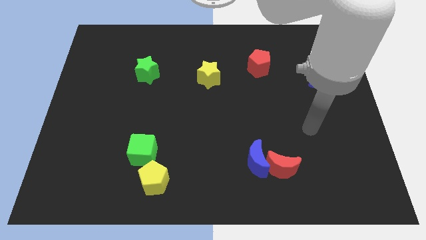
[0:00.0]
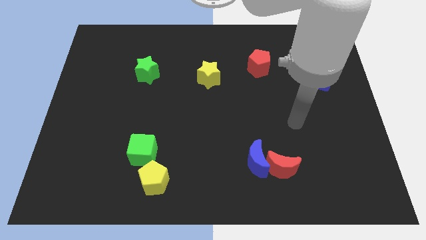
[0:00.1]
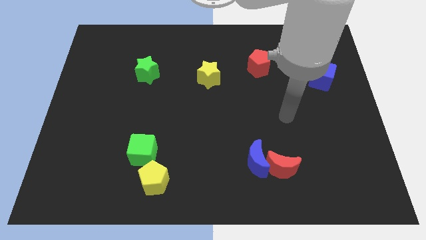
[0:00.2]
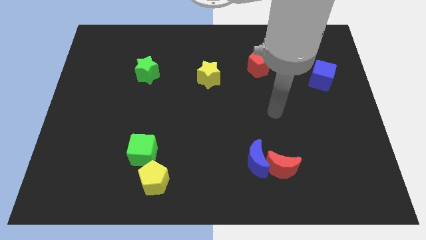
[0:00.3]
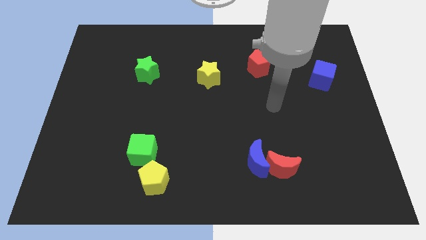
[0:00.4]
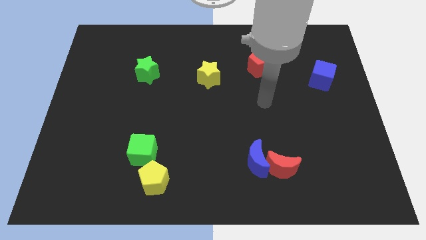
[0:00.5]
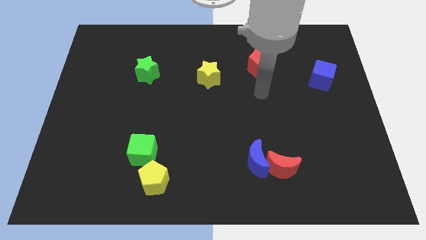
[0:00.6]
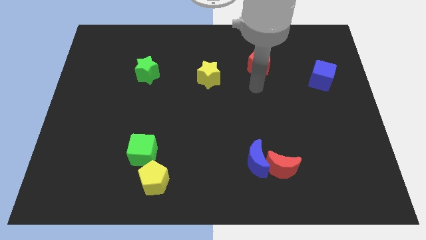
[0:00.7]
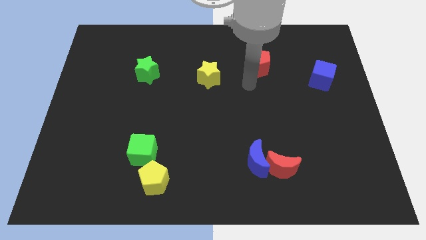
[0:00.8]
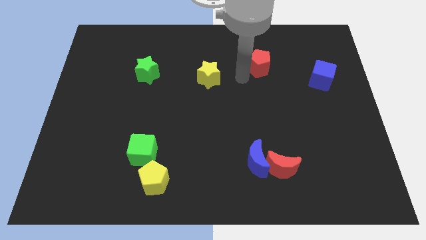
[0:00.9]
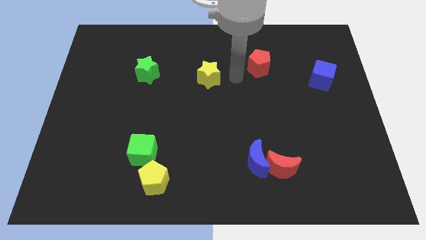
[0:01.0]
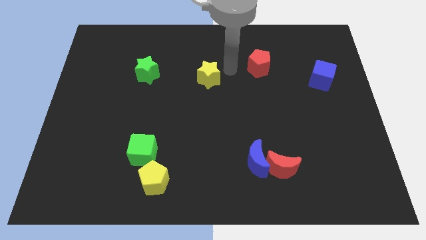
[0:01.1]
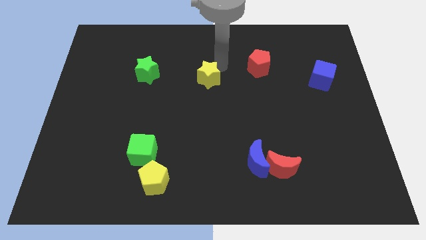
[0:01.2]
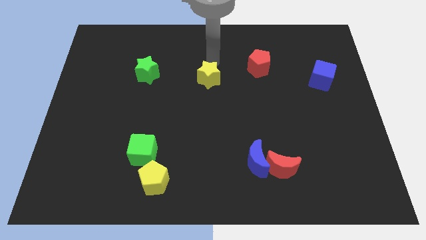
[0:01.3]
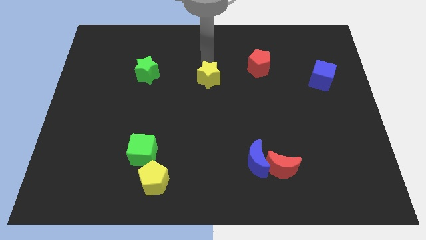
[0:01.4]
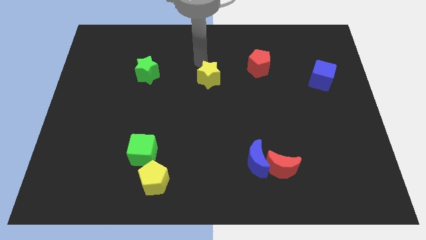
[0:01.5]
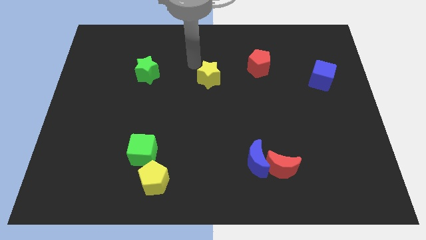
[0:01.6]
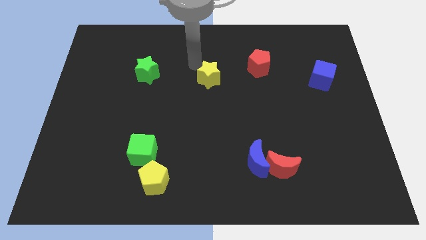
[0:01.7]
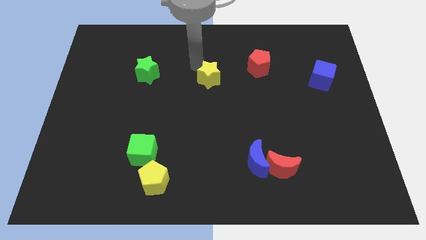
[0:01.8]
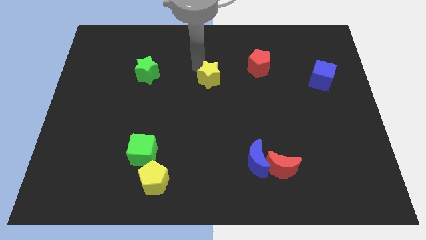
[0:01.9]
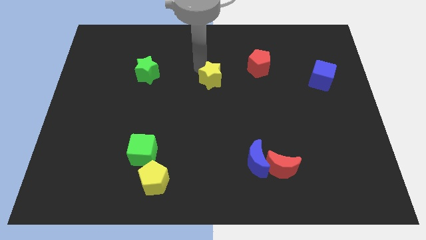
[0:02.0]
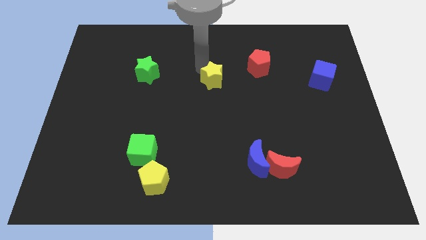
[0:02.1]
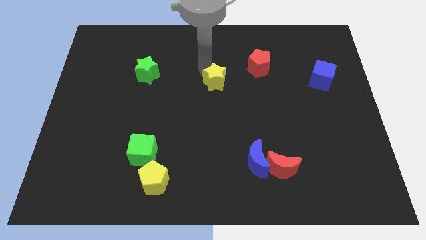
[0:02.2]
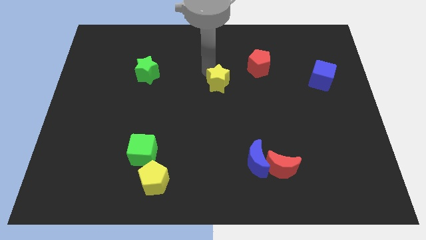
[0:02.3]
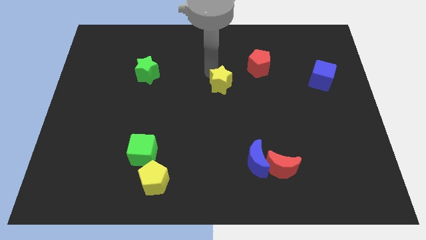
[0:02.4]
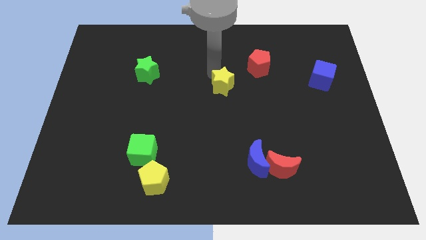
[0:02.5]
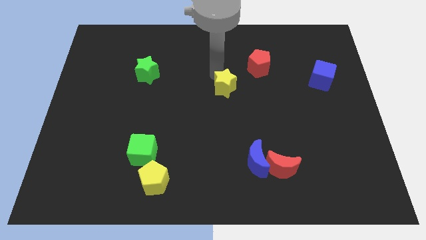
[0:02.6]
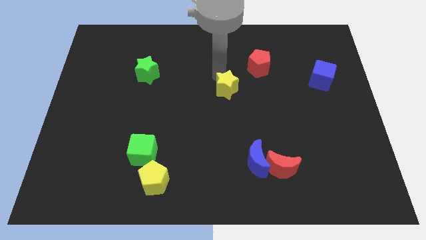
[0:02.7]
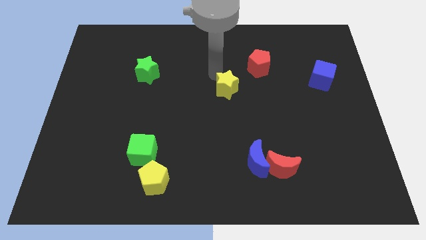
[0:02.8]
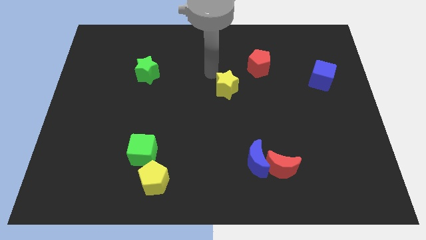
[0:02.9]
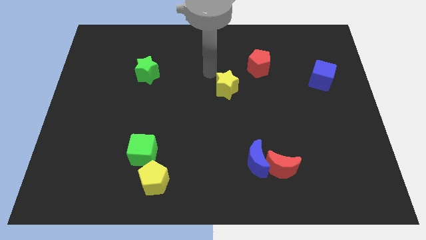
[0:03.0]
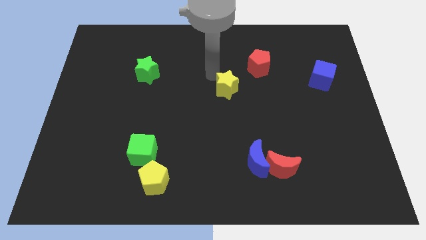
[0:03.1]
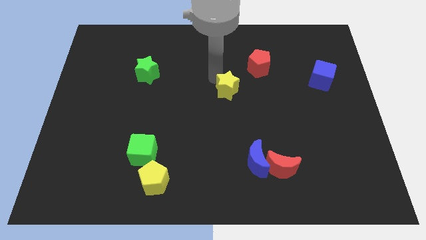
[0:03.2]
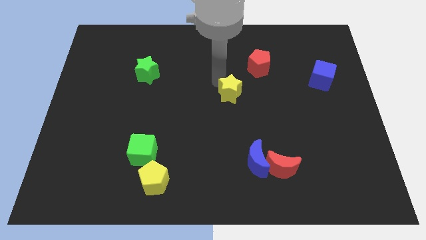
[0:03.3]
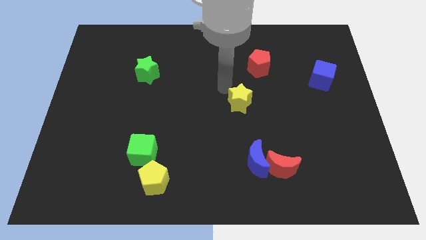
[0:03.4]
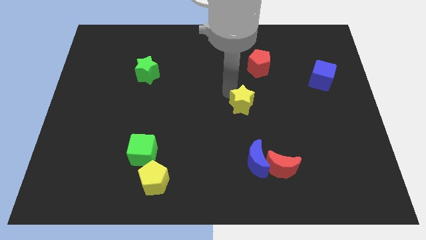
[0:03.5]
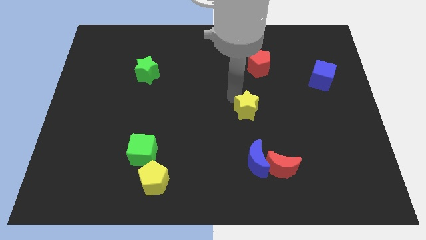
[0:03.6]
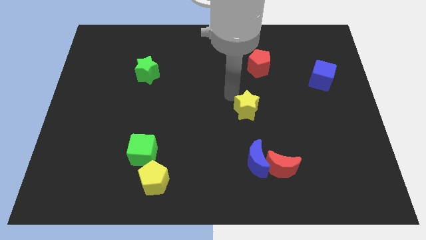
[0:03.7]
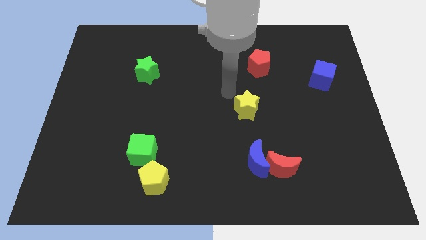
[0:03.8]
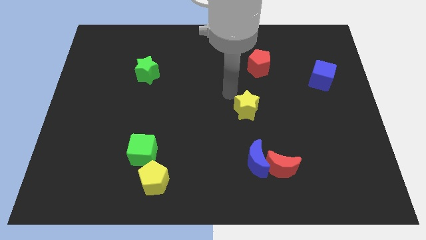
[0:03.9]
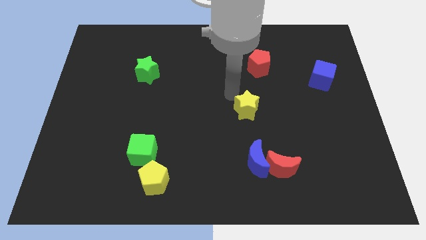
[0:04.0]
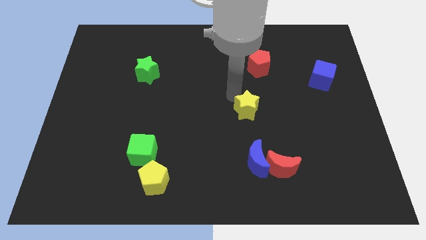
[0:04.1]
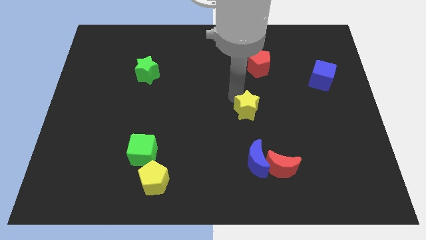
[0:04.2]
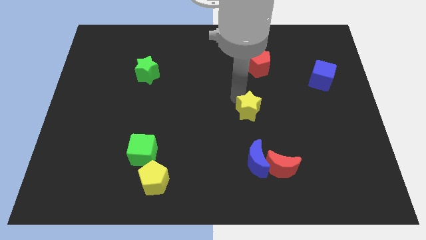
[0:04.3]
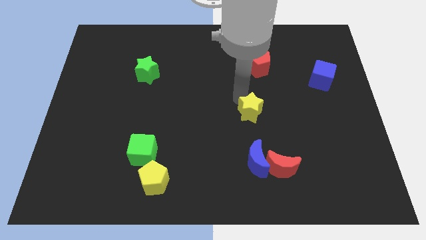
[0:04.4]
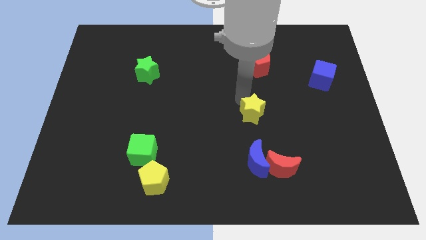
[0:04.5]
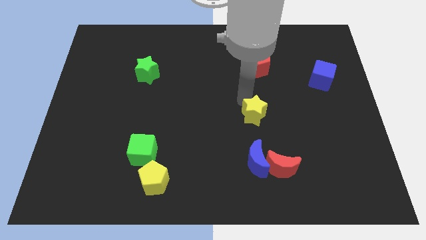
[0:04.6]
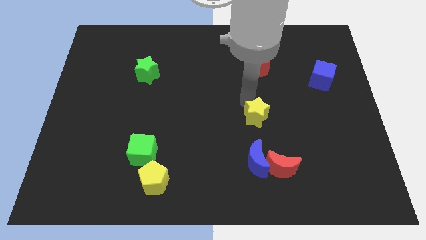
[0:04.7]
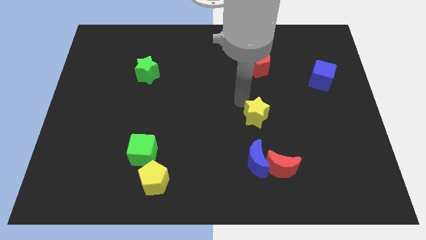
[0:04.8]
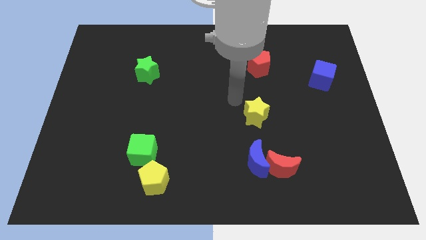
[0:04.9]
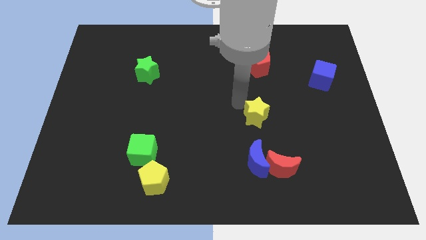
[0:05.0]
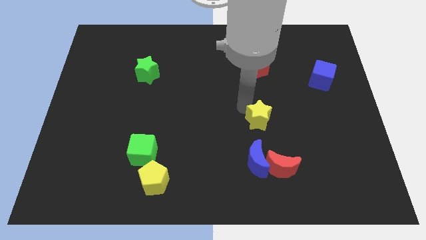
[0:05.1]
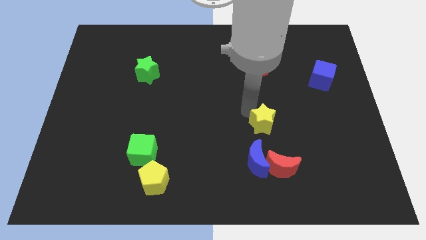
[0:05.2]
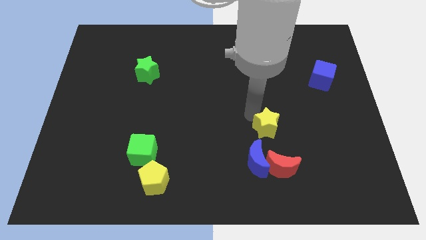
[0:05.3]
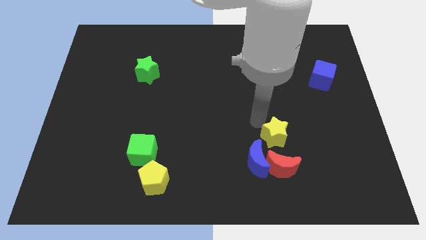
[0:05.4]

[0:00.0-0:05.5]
slide the yellow star diagonally downwards and right

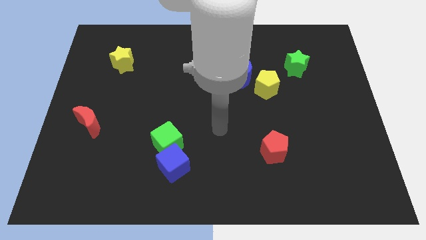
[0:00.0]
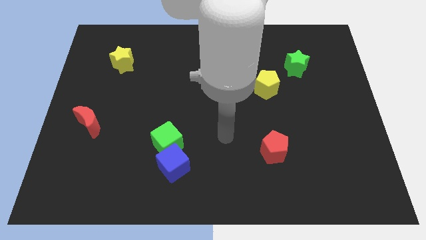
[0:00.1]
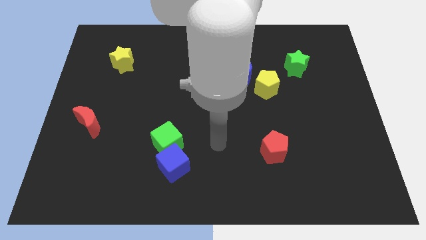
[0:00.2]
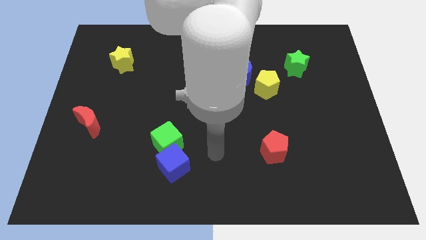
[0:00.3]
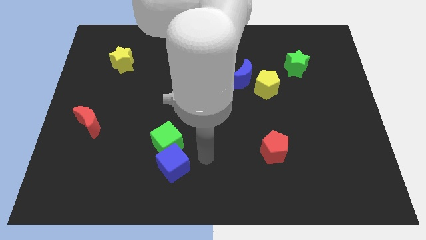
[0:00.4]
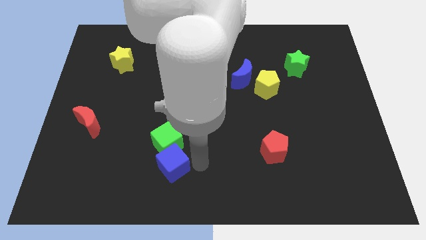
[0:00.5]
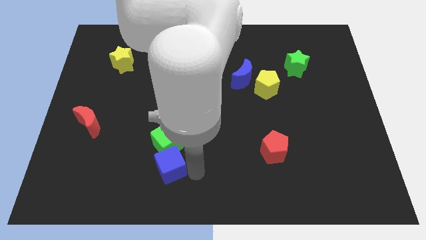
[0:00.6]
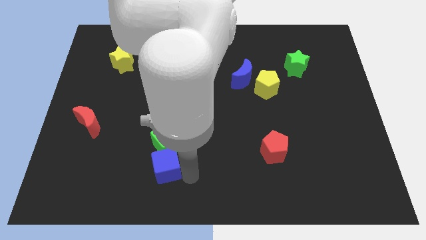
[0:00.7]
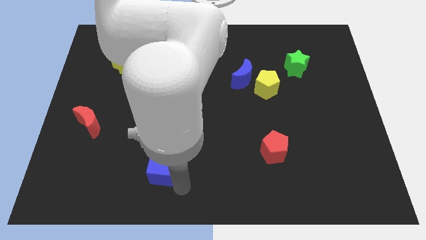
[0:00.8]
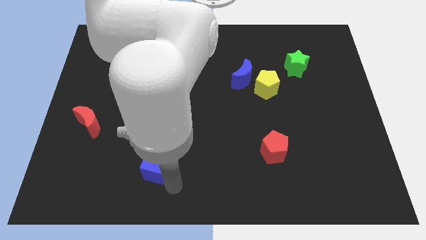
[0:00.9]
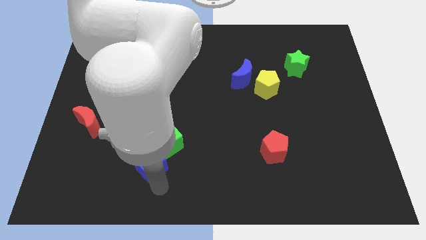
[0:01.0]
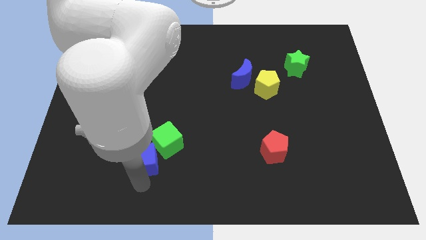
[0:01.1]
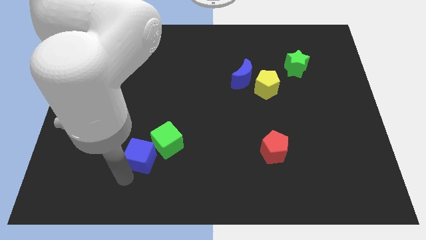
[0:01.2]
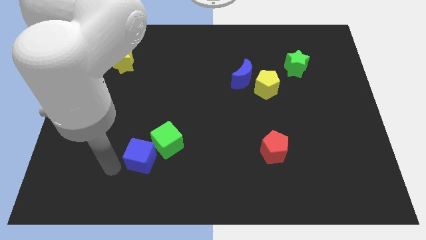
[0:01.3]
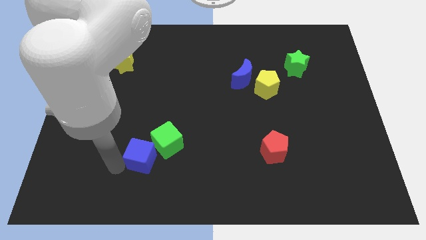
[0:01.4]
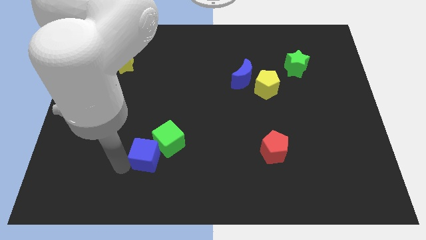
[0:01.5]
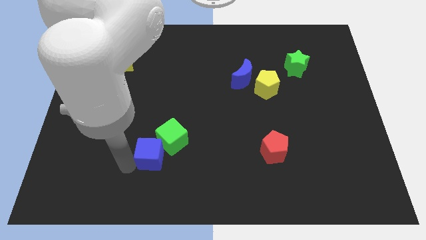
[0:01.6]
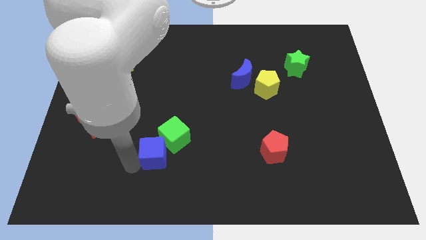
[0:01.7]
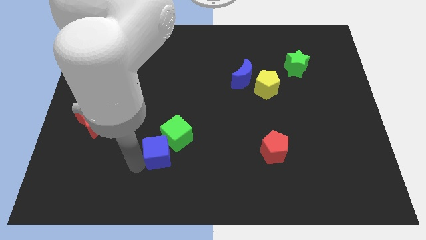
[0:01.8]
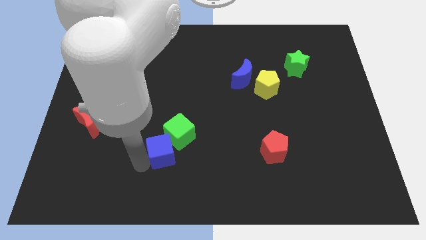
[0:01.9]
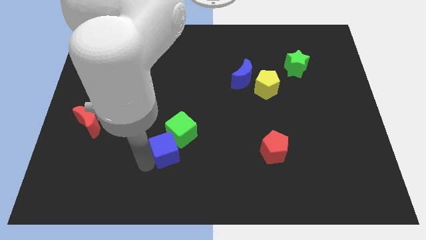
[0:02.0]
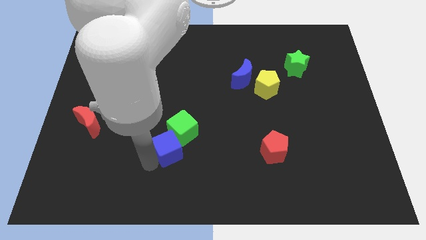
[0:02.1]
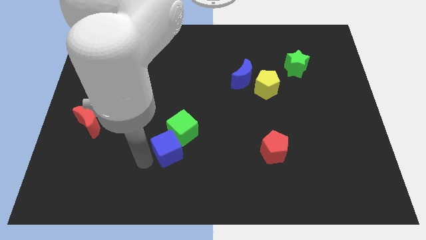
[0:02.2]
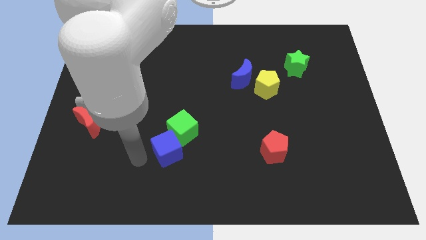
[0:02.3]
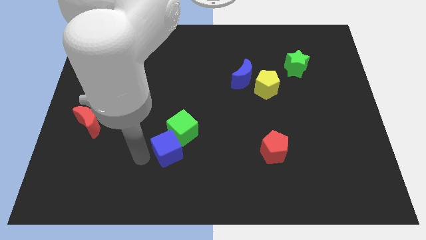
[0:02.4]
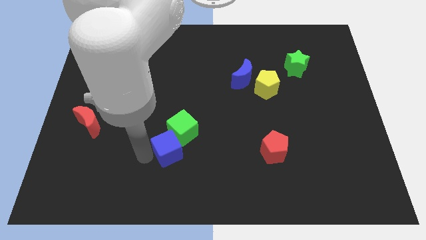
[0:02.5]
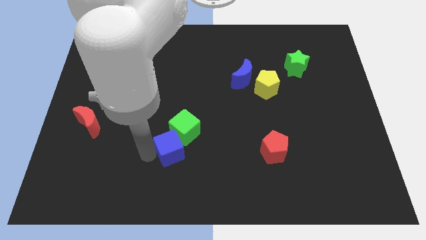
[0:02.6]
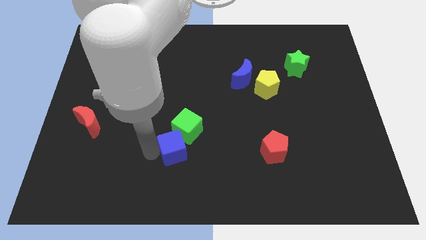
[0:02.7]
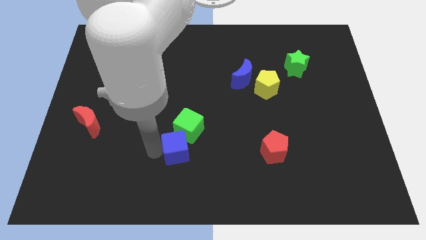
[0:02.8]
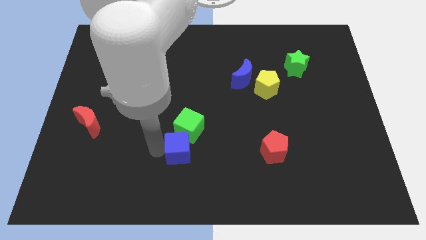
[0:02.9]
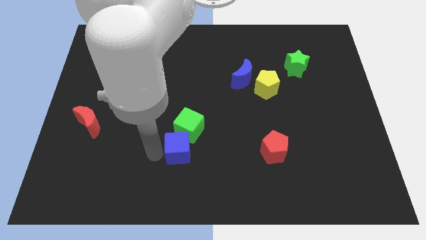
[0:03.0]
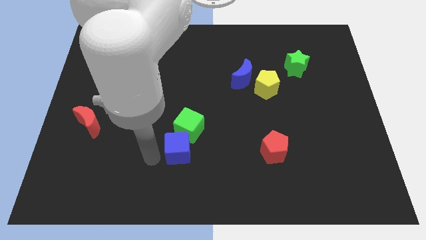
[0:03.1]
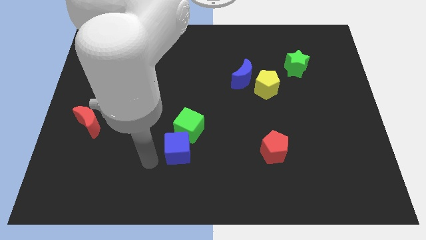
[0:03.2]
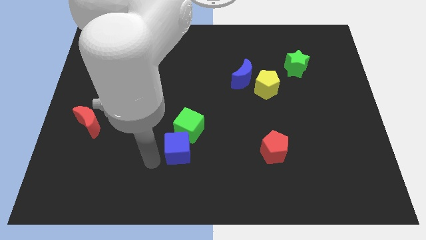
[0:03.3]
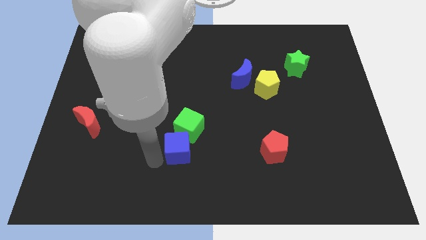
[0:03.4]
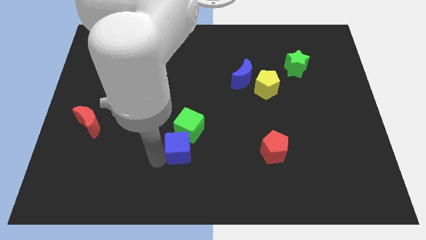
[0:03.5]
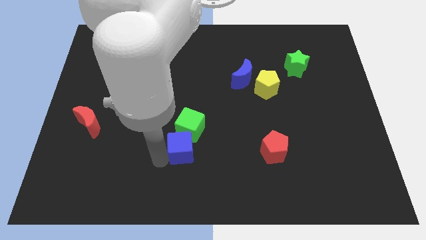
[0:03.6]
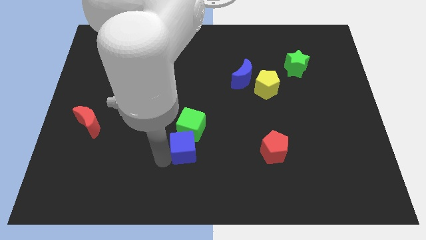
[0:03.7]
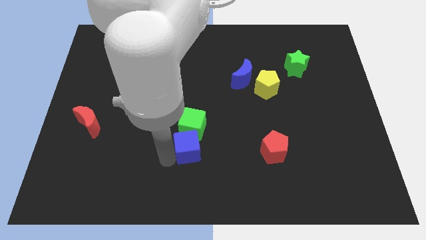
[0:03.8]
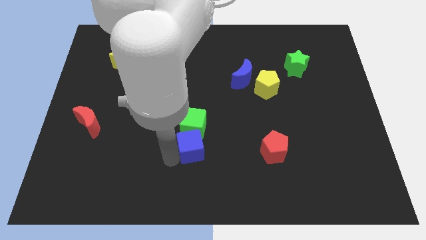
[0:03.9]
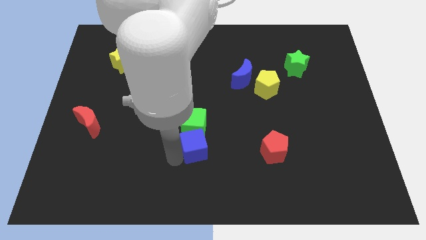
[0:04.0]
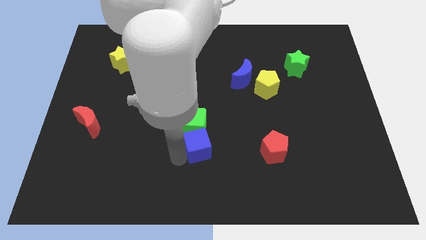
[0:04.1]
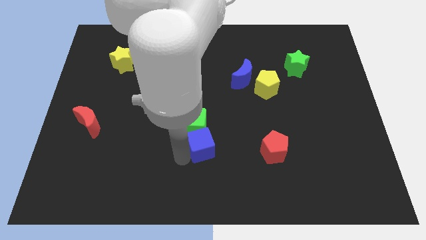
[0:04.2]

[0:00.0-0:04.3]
push the blue cube somewhat up and right
